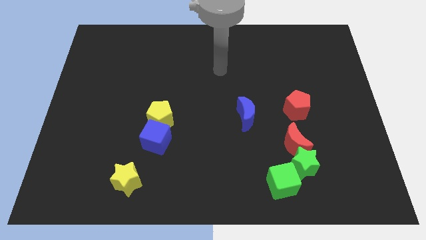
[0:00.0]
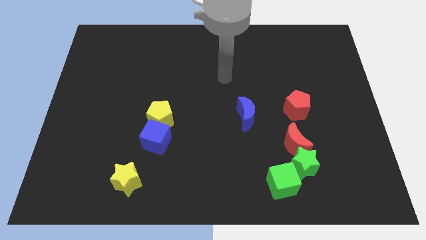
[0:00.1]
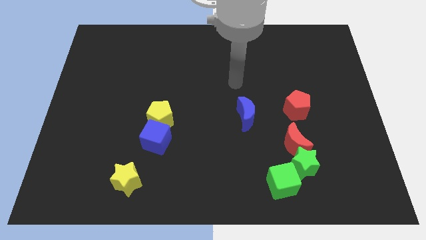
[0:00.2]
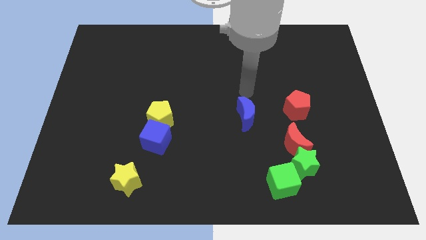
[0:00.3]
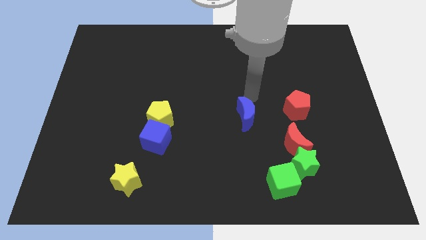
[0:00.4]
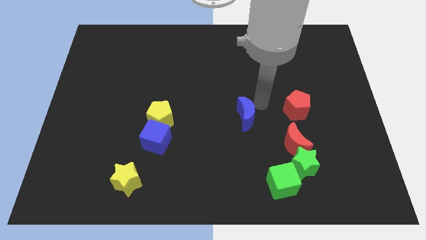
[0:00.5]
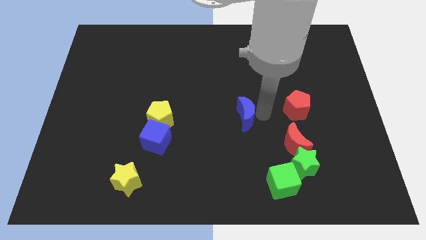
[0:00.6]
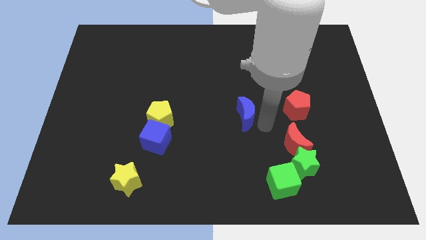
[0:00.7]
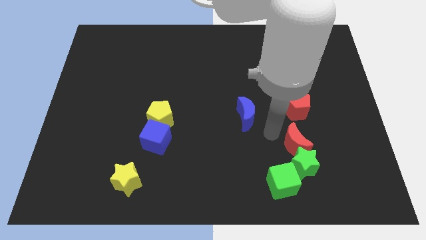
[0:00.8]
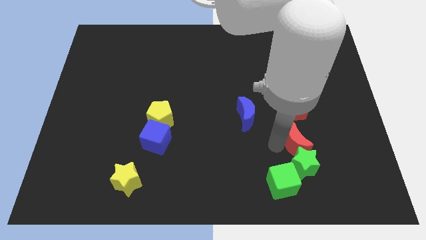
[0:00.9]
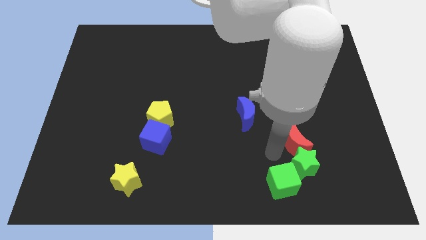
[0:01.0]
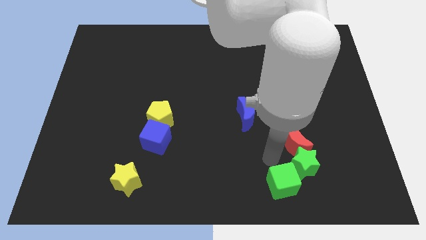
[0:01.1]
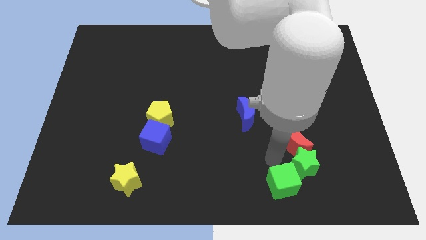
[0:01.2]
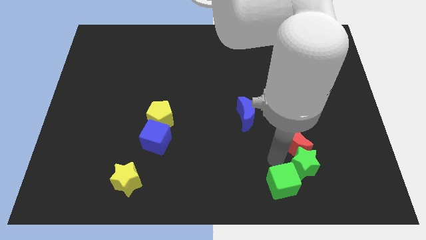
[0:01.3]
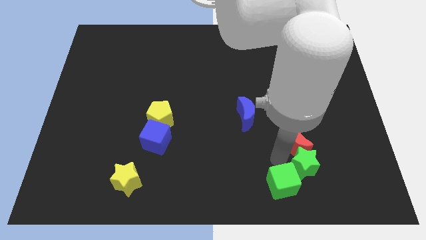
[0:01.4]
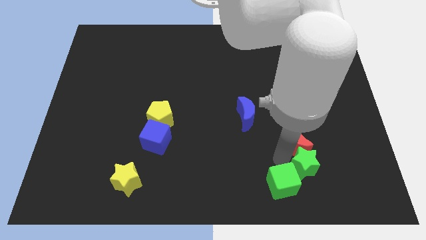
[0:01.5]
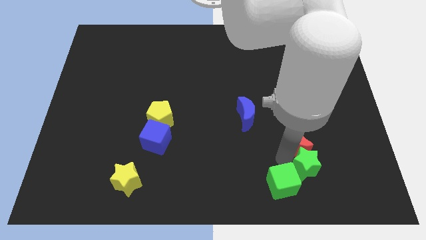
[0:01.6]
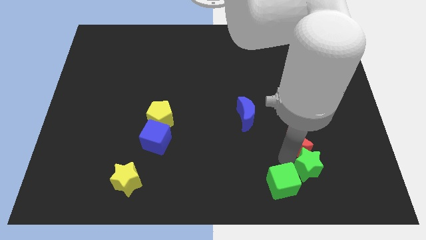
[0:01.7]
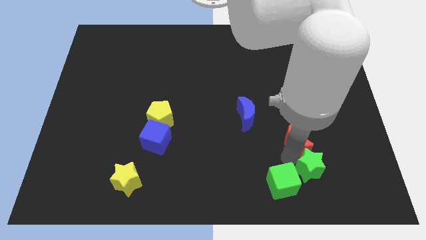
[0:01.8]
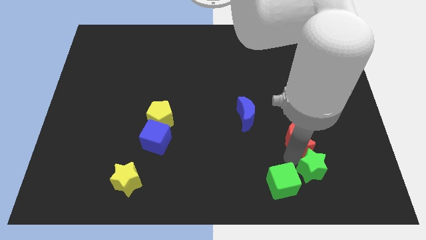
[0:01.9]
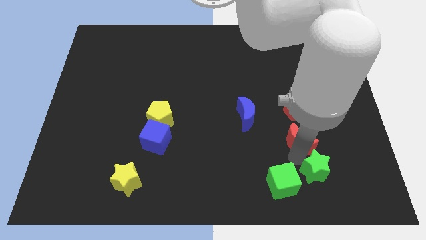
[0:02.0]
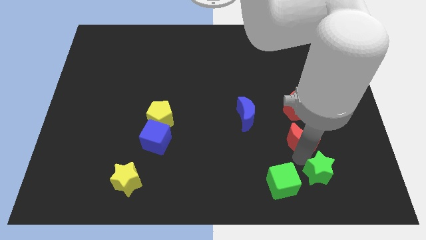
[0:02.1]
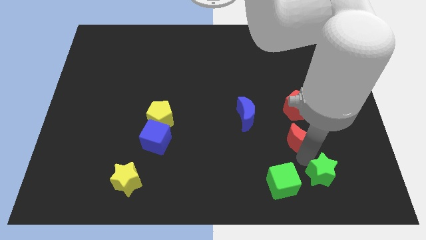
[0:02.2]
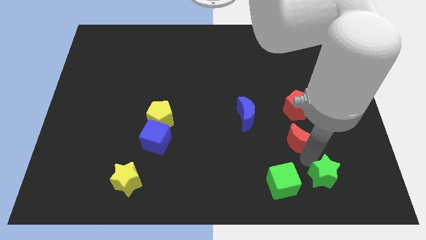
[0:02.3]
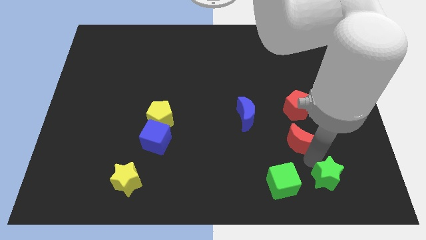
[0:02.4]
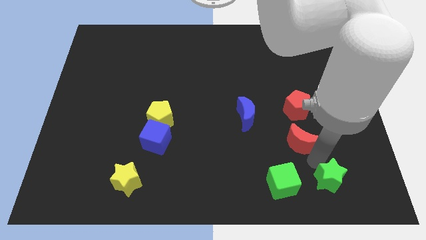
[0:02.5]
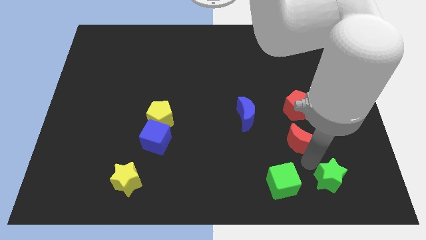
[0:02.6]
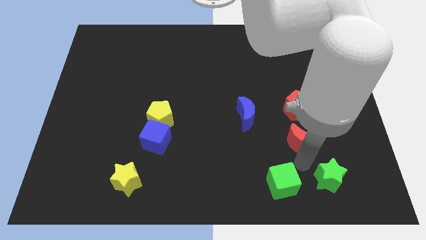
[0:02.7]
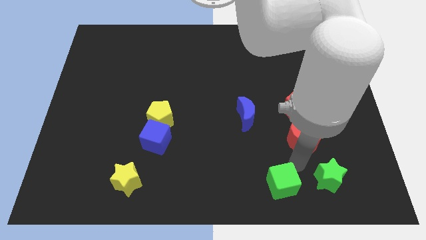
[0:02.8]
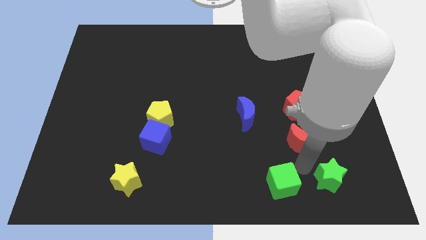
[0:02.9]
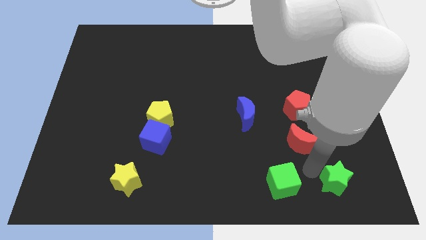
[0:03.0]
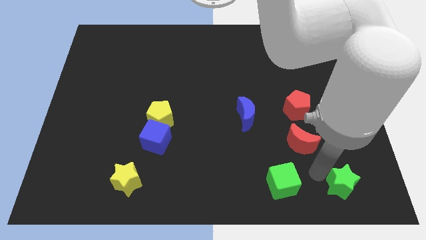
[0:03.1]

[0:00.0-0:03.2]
pull the green star apart from the red moon and green cube

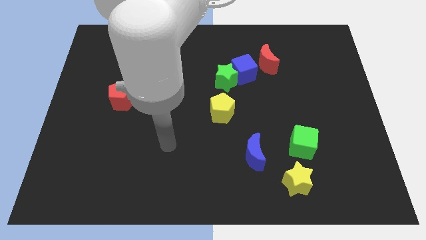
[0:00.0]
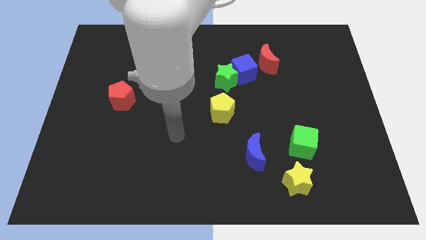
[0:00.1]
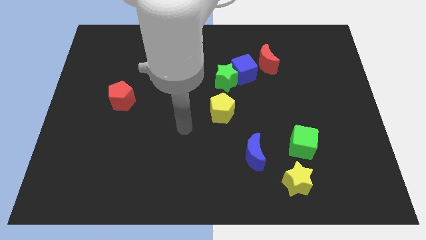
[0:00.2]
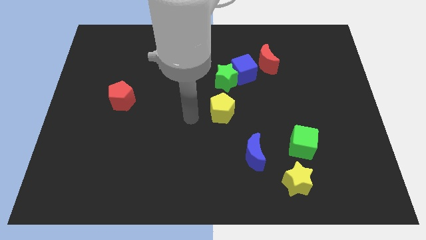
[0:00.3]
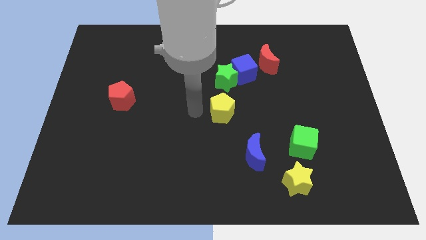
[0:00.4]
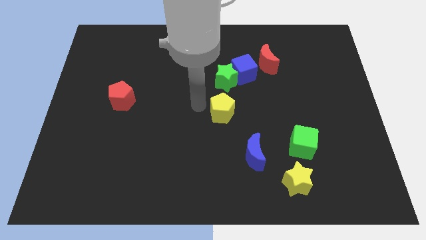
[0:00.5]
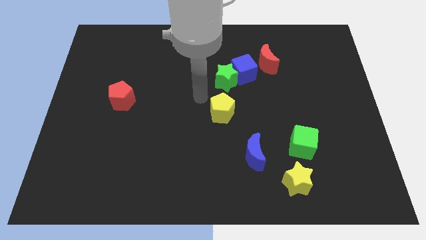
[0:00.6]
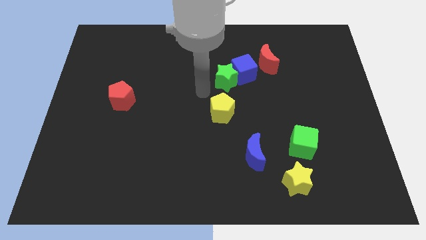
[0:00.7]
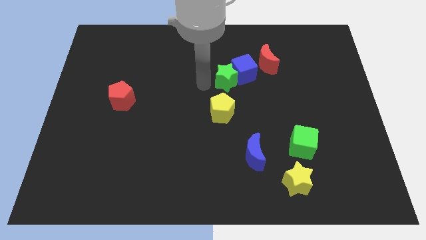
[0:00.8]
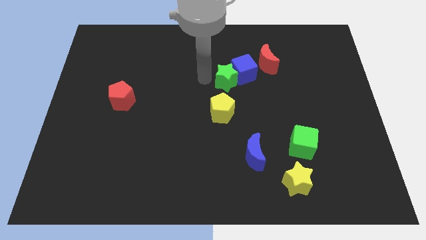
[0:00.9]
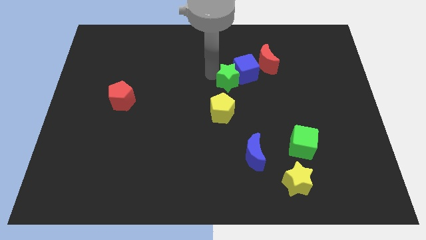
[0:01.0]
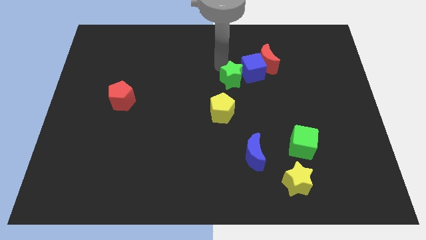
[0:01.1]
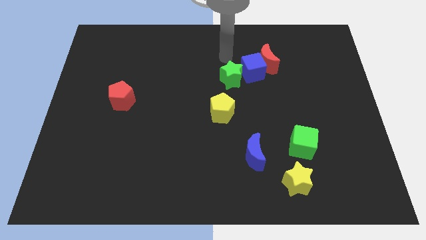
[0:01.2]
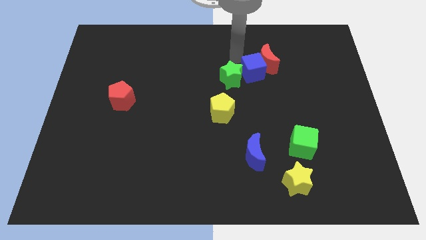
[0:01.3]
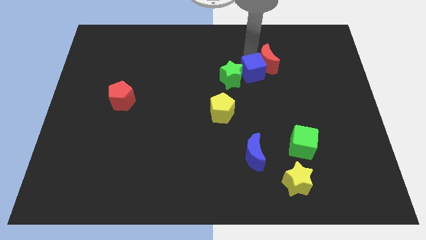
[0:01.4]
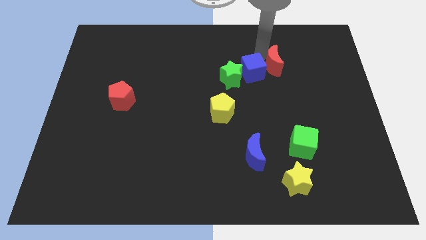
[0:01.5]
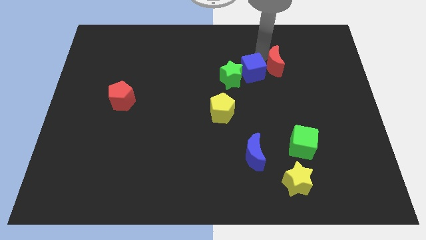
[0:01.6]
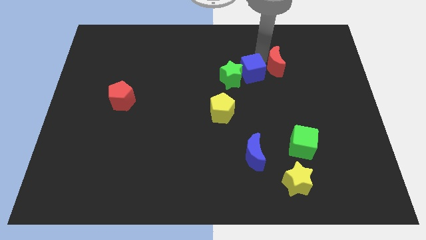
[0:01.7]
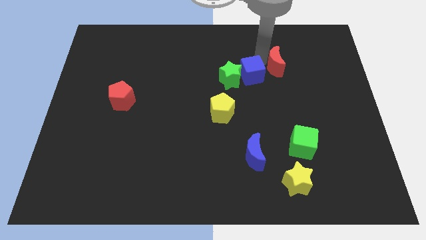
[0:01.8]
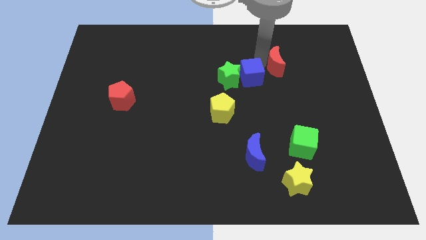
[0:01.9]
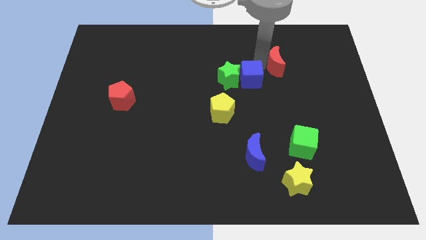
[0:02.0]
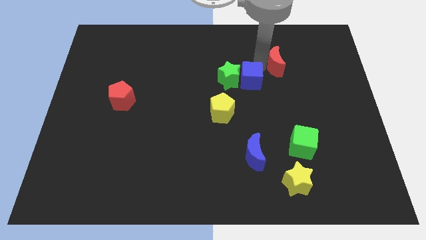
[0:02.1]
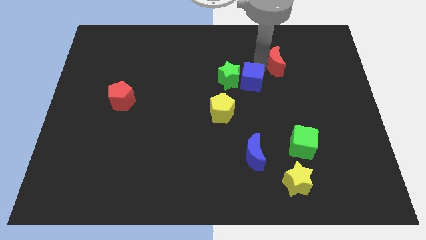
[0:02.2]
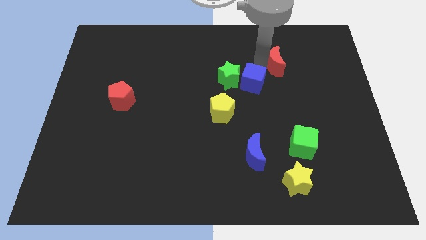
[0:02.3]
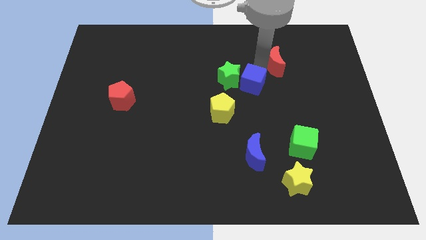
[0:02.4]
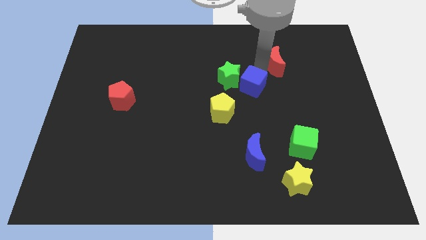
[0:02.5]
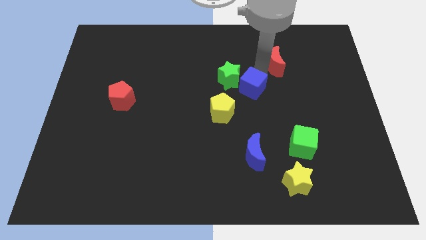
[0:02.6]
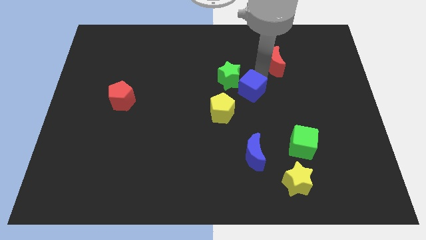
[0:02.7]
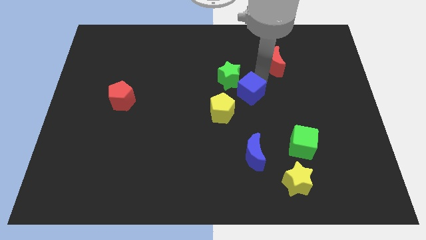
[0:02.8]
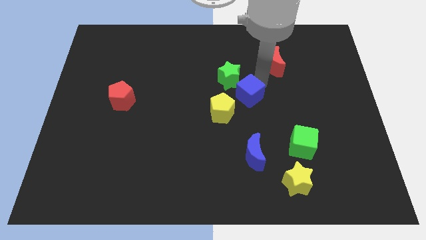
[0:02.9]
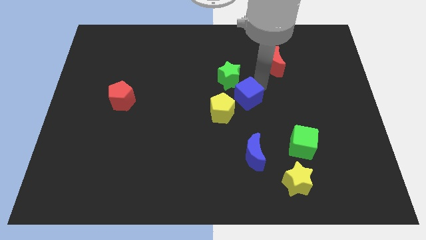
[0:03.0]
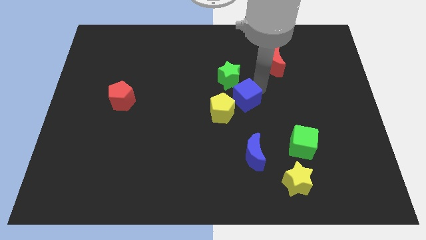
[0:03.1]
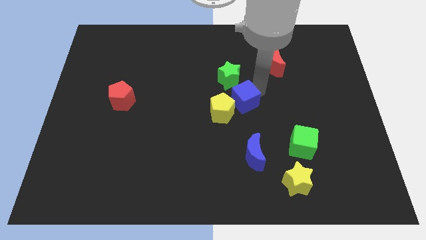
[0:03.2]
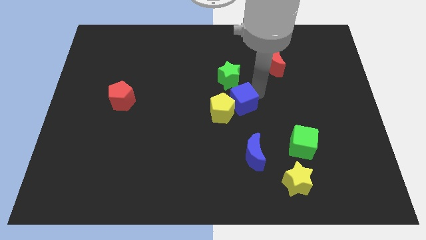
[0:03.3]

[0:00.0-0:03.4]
move the blue cube away from the green star and red moon

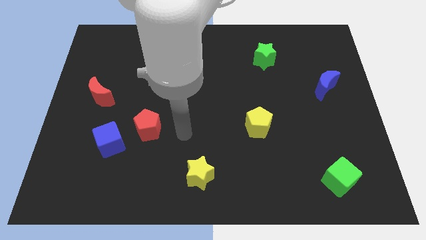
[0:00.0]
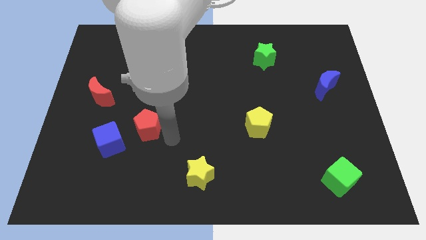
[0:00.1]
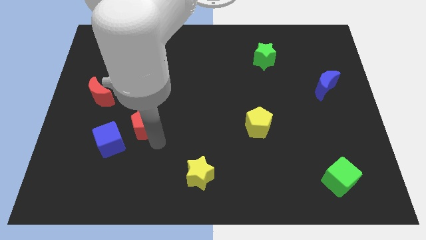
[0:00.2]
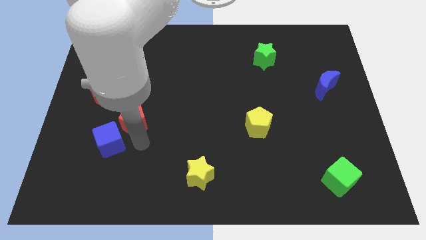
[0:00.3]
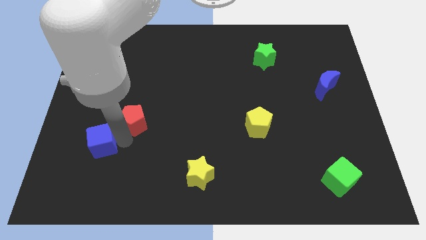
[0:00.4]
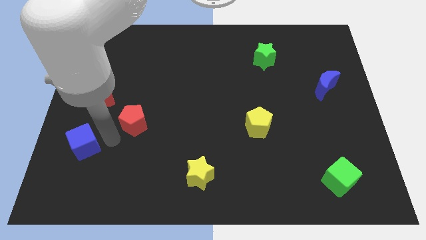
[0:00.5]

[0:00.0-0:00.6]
pull the red pentagon apart from the blue cube

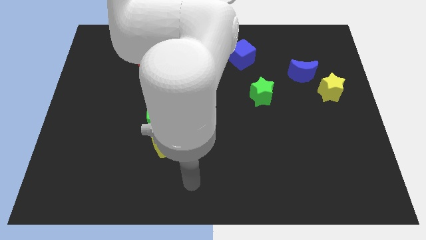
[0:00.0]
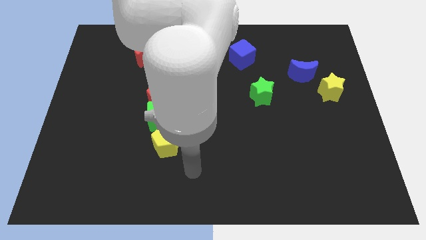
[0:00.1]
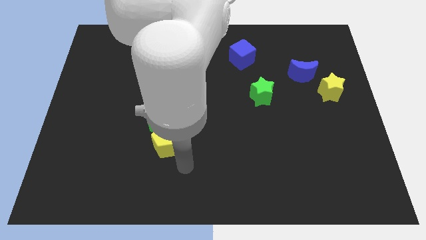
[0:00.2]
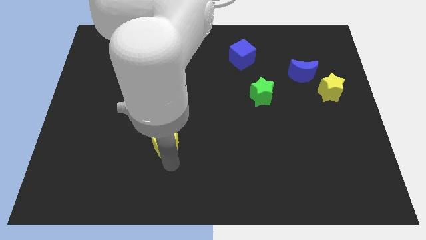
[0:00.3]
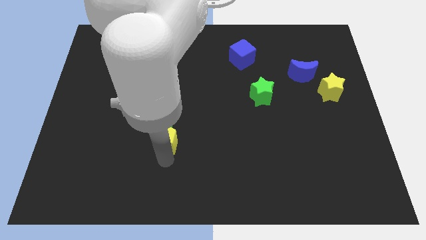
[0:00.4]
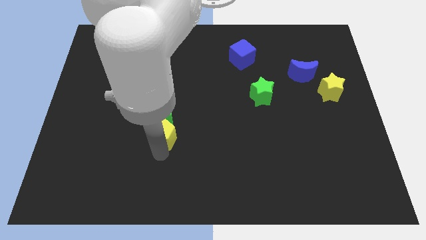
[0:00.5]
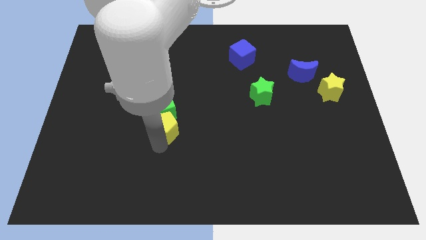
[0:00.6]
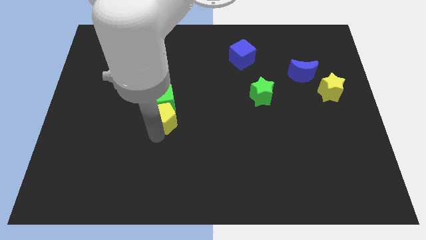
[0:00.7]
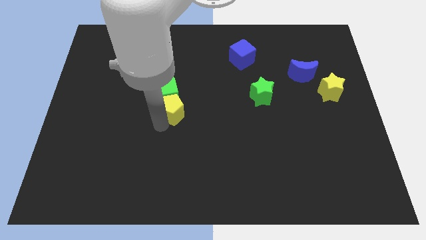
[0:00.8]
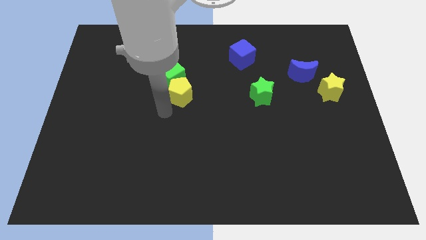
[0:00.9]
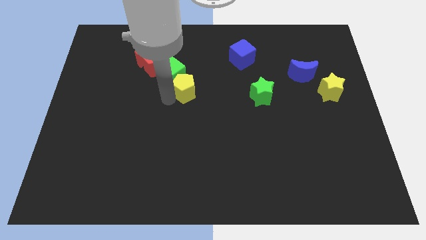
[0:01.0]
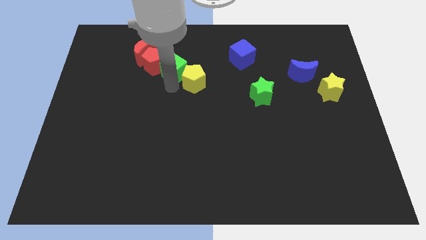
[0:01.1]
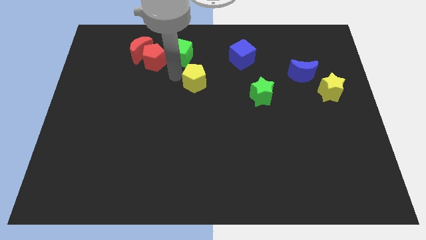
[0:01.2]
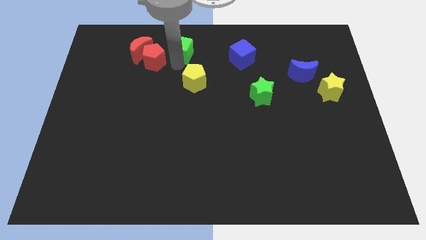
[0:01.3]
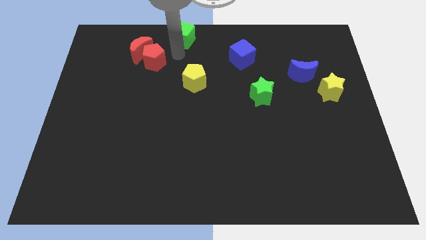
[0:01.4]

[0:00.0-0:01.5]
pull the red pentagon apart from the green cube

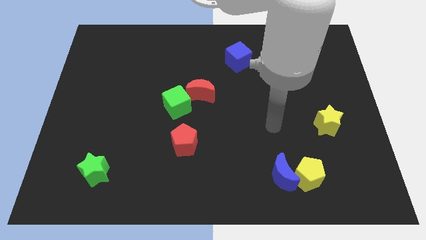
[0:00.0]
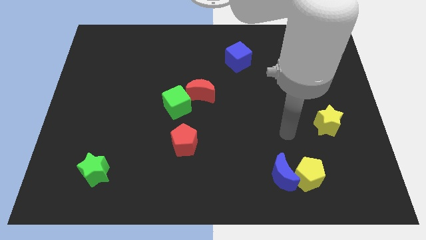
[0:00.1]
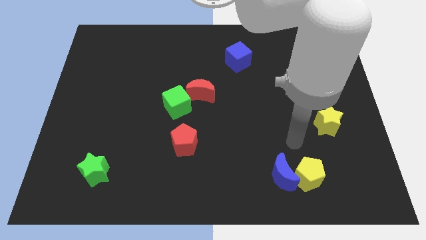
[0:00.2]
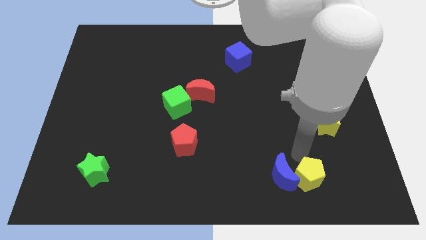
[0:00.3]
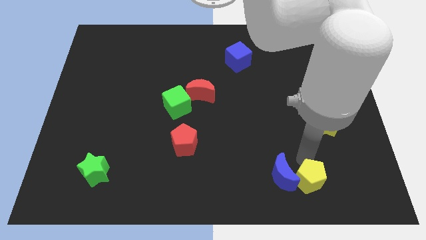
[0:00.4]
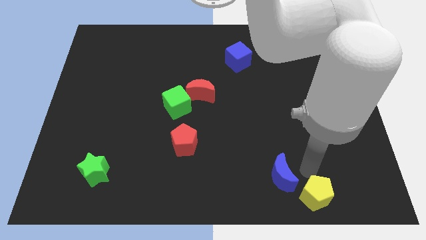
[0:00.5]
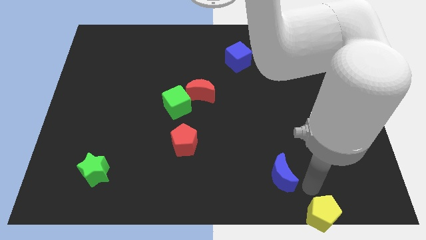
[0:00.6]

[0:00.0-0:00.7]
move the blue moon away from the yellow pentagon
